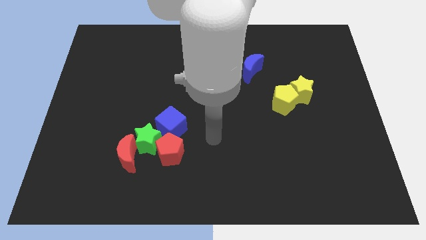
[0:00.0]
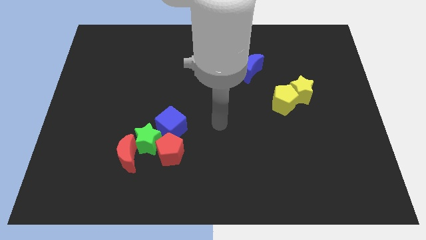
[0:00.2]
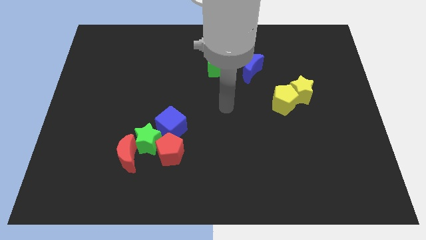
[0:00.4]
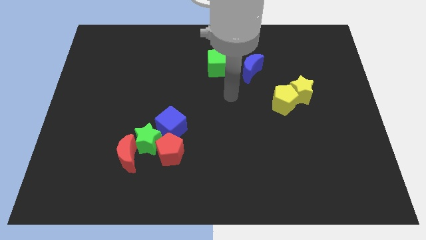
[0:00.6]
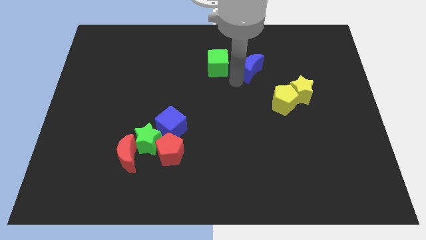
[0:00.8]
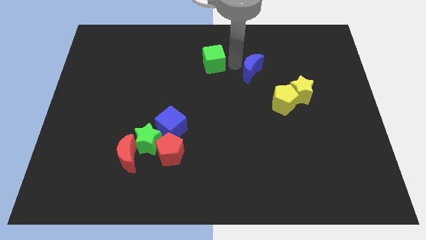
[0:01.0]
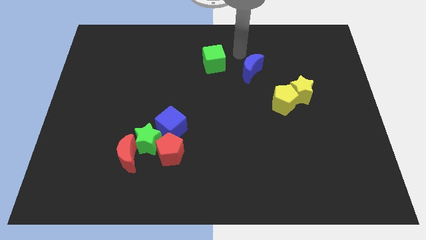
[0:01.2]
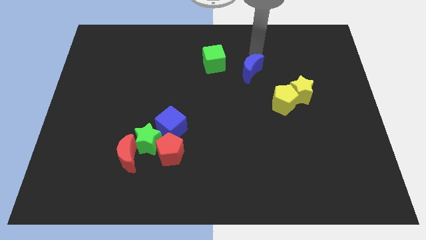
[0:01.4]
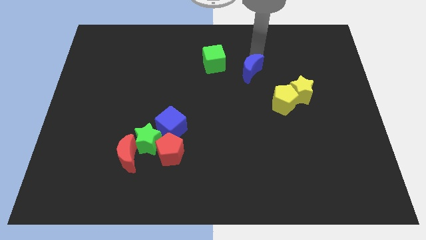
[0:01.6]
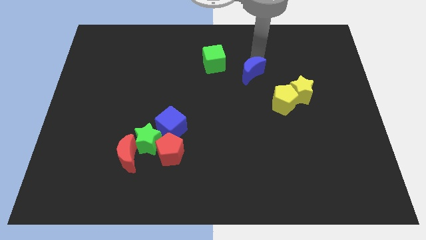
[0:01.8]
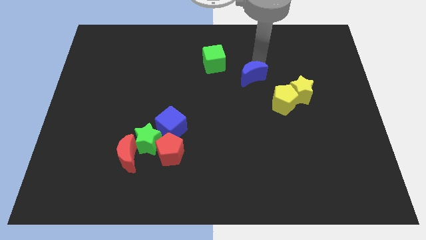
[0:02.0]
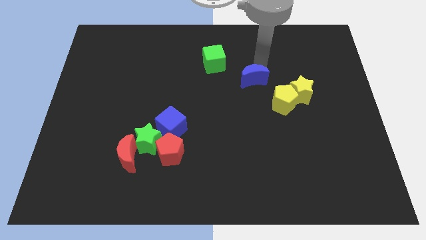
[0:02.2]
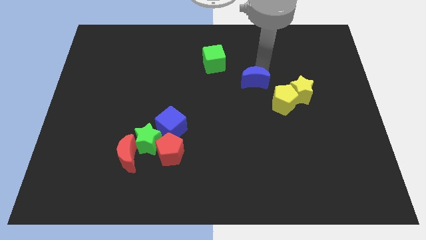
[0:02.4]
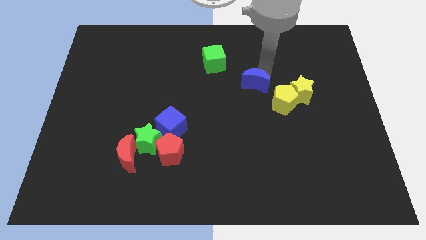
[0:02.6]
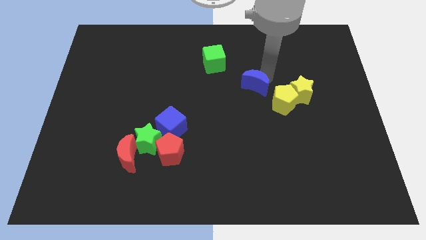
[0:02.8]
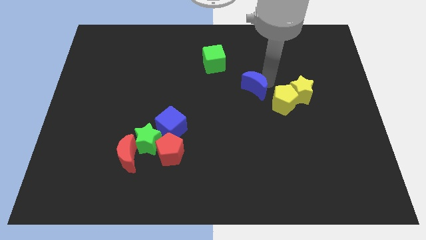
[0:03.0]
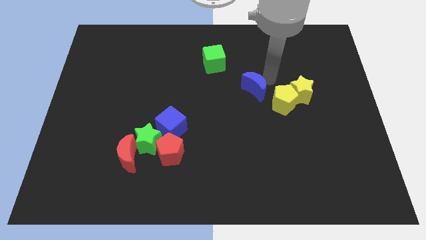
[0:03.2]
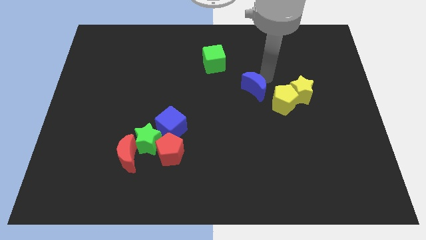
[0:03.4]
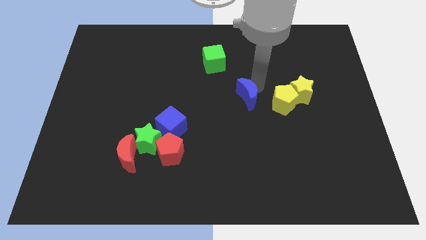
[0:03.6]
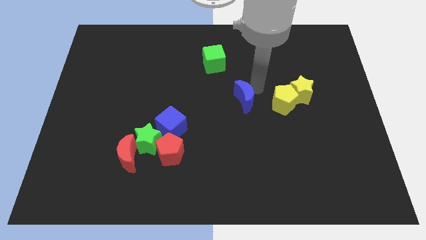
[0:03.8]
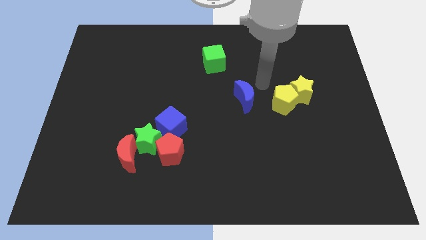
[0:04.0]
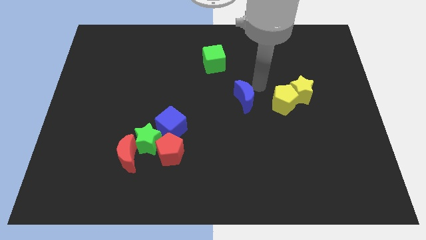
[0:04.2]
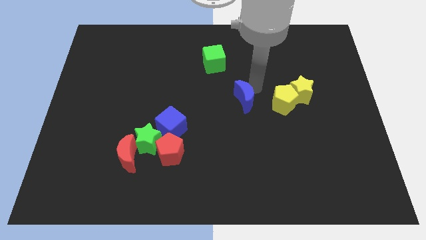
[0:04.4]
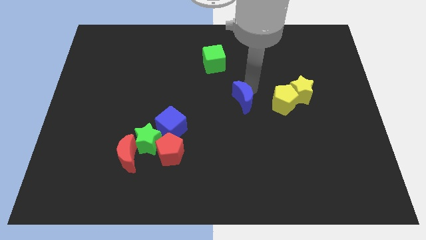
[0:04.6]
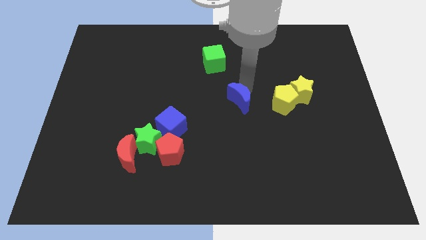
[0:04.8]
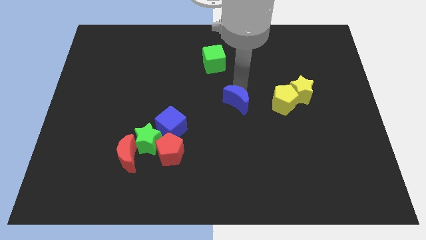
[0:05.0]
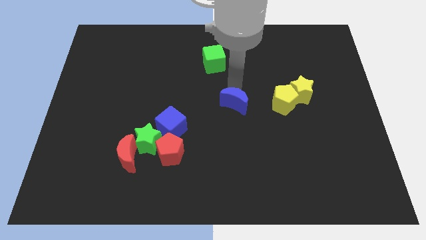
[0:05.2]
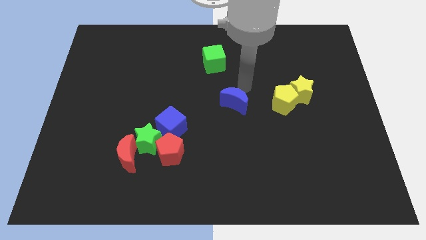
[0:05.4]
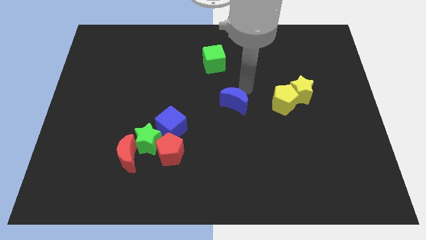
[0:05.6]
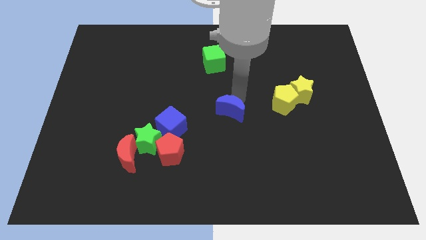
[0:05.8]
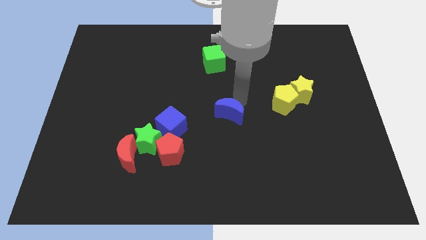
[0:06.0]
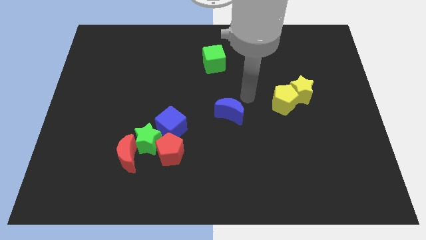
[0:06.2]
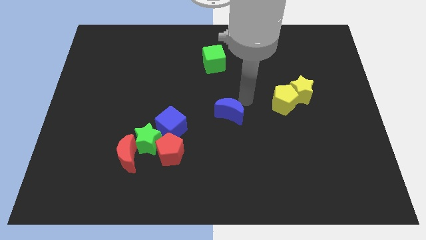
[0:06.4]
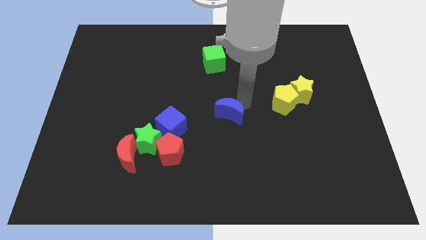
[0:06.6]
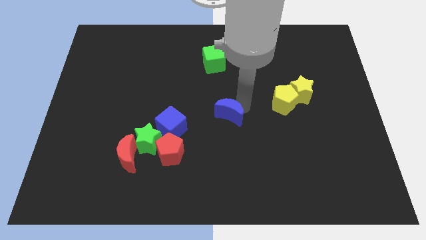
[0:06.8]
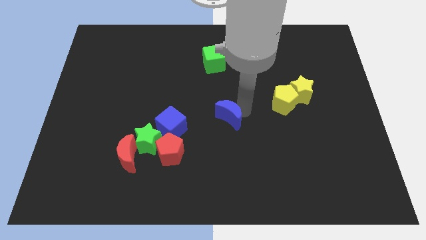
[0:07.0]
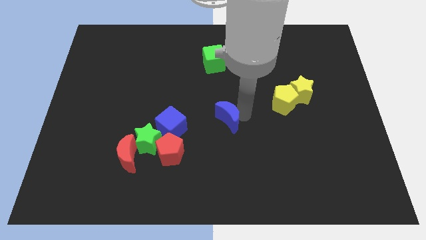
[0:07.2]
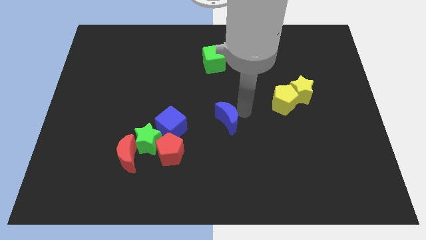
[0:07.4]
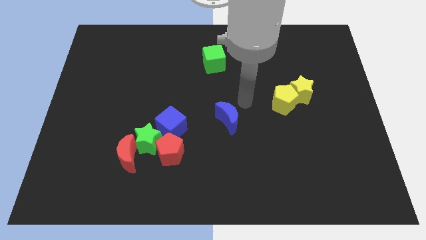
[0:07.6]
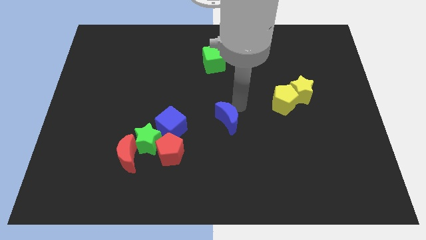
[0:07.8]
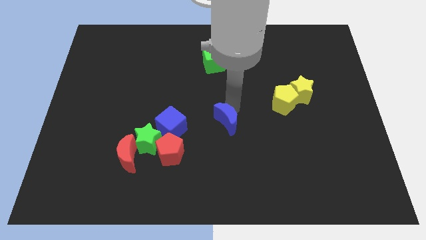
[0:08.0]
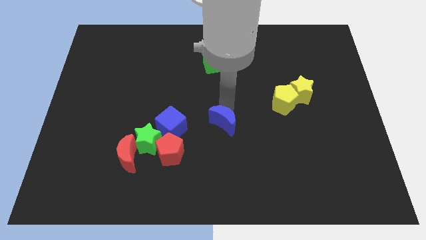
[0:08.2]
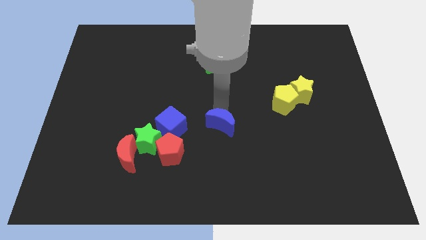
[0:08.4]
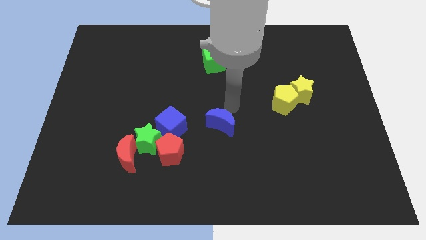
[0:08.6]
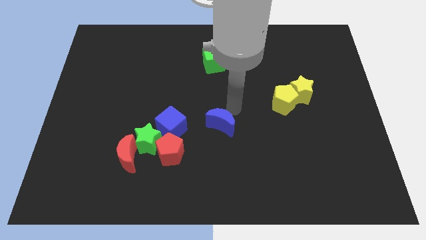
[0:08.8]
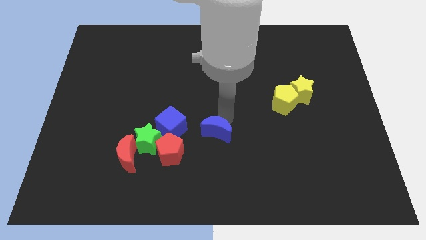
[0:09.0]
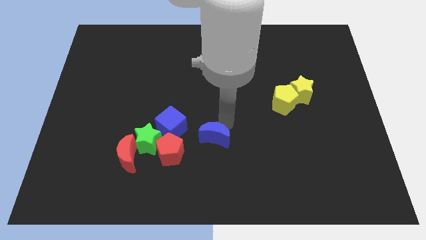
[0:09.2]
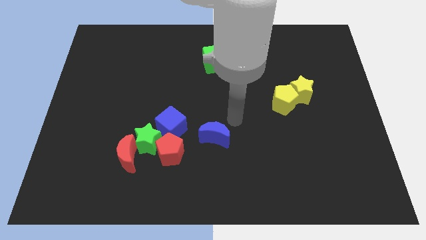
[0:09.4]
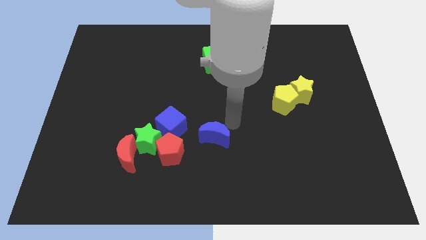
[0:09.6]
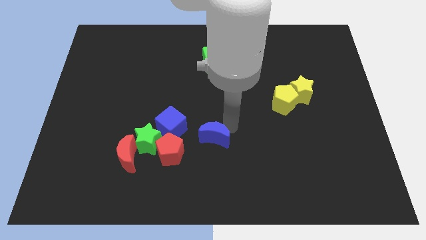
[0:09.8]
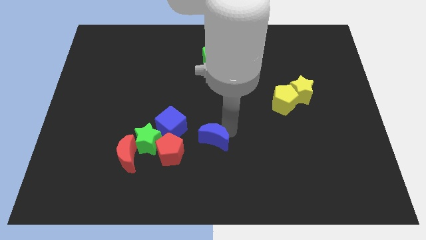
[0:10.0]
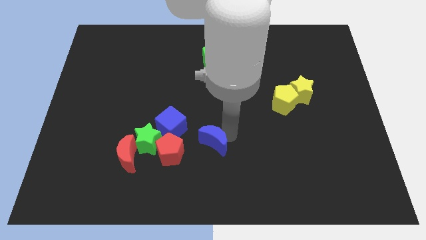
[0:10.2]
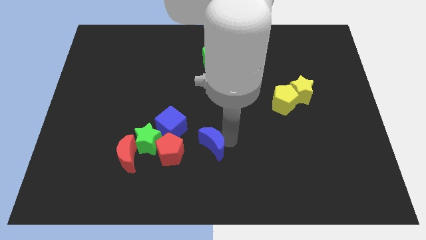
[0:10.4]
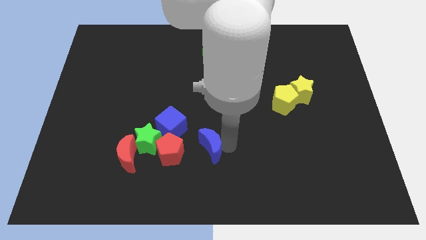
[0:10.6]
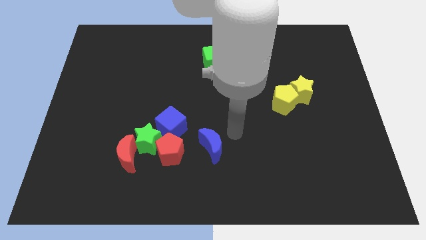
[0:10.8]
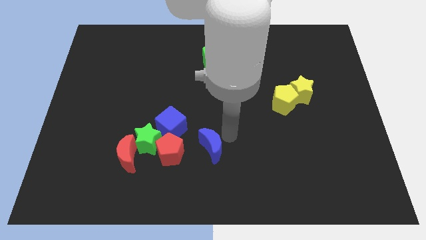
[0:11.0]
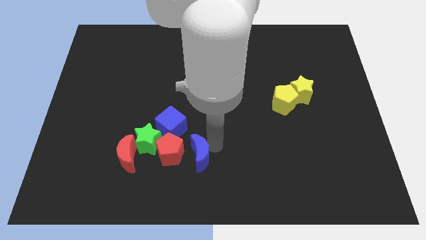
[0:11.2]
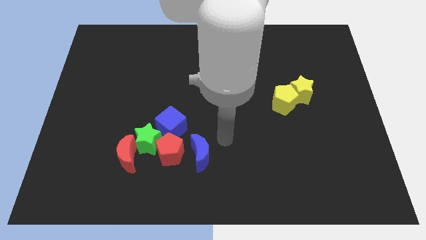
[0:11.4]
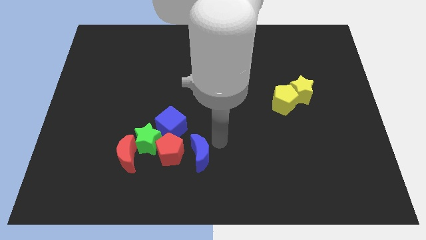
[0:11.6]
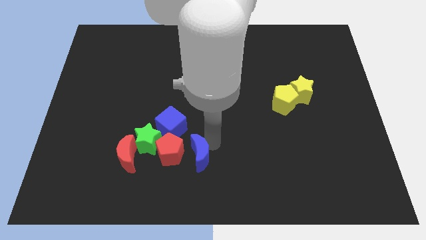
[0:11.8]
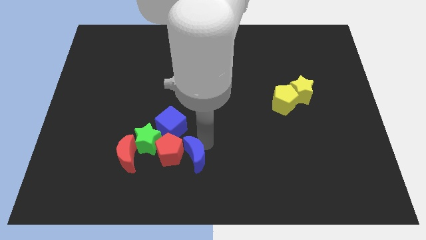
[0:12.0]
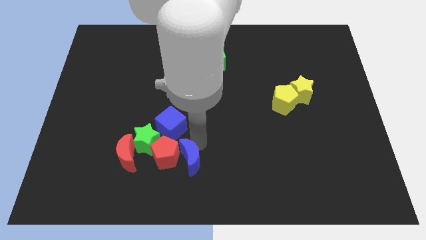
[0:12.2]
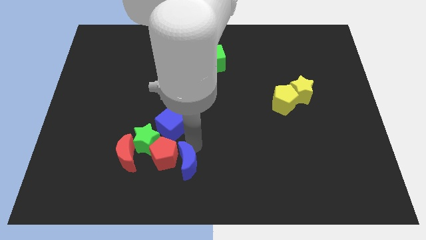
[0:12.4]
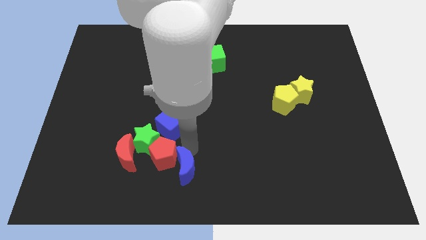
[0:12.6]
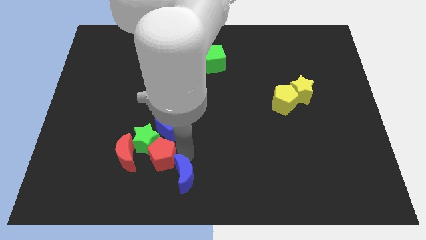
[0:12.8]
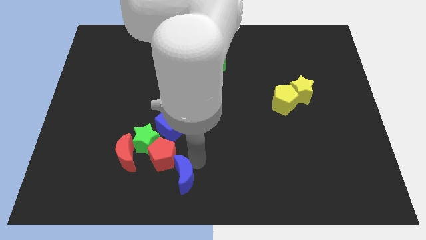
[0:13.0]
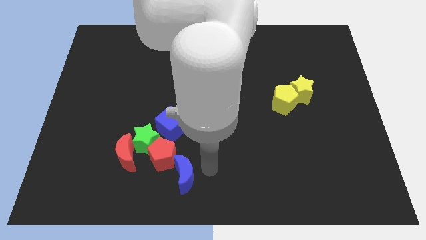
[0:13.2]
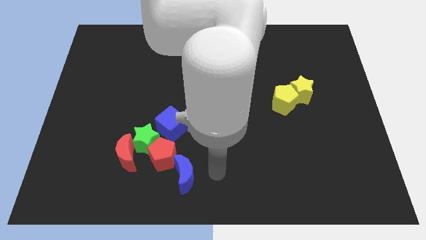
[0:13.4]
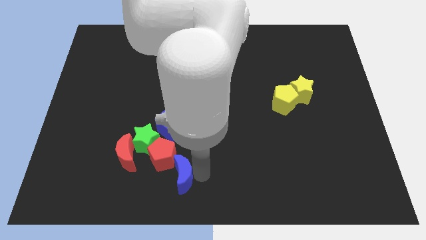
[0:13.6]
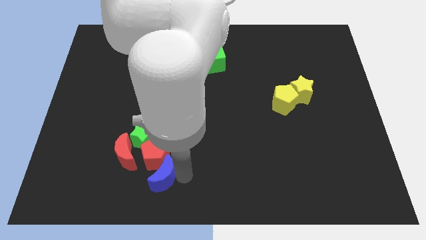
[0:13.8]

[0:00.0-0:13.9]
slide the blue moon to the bottom right of the red moon
